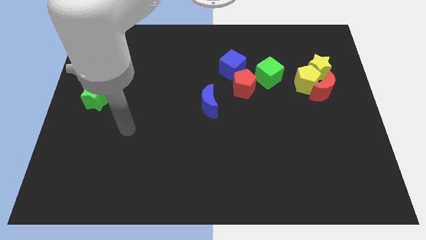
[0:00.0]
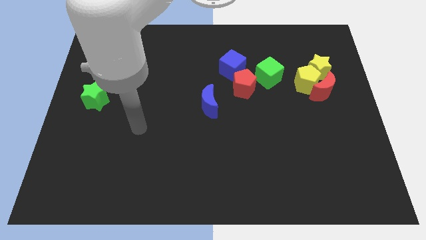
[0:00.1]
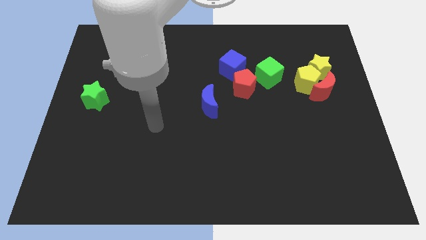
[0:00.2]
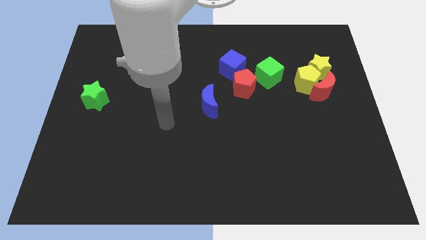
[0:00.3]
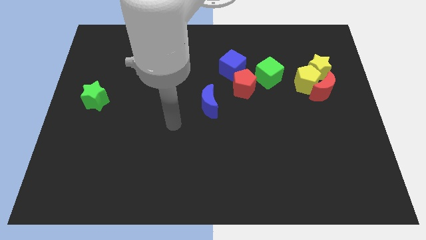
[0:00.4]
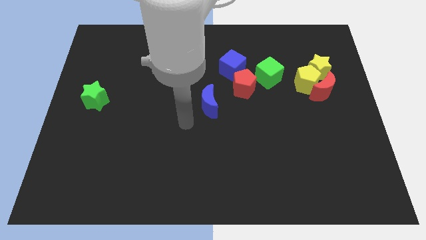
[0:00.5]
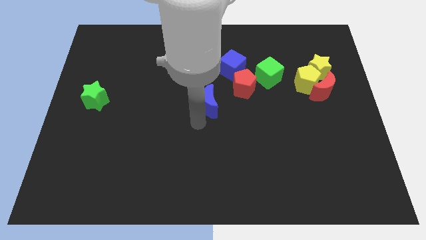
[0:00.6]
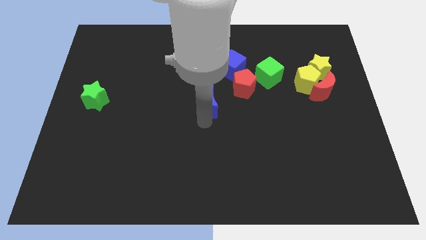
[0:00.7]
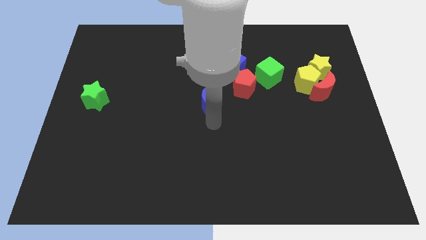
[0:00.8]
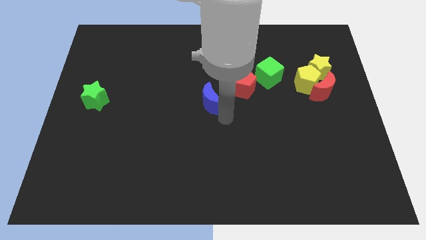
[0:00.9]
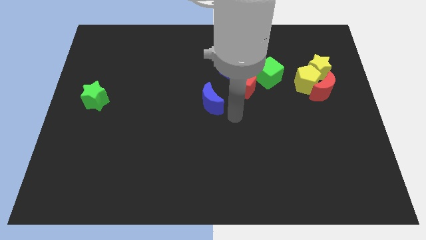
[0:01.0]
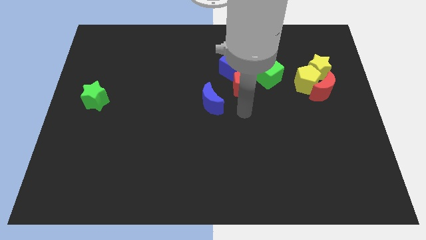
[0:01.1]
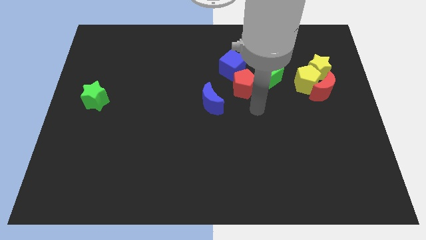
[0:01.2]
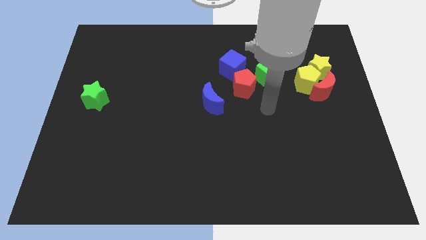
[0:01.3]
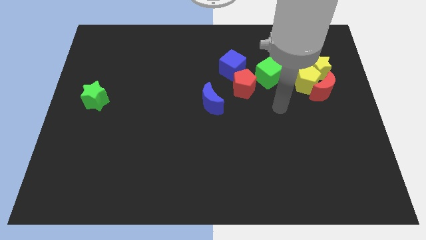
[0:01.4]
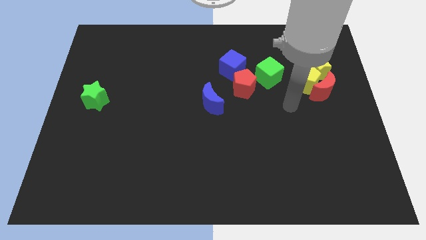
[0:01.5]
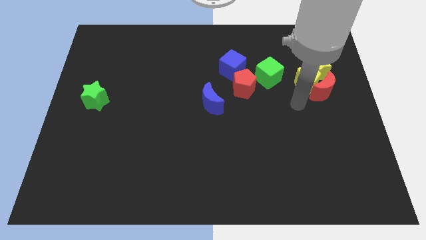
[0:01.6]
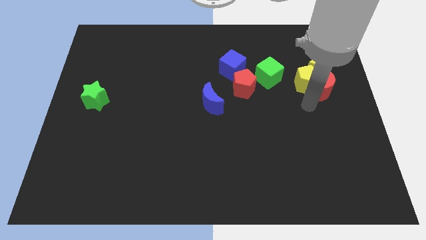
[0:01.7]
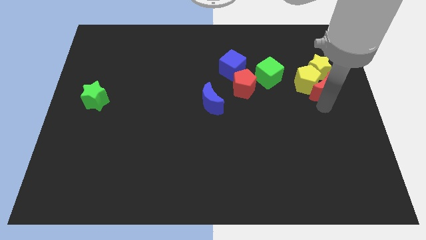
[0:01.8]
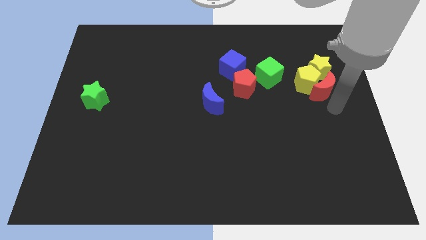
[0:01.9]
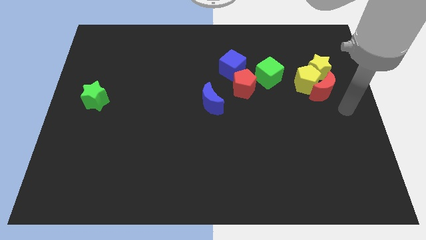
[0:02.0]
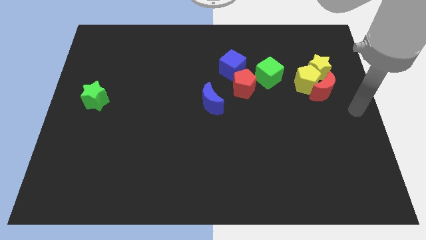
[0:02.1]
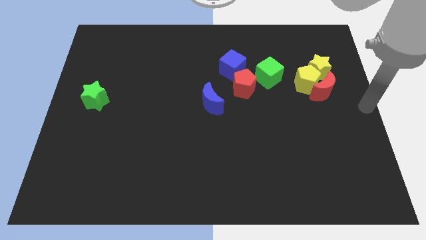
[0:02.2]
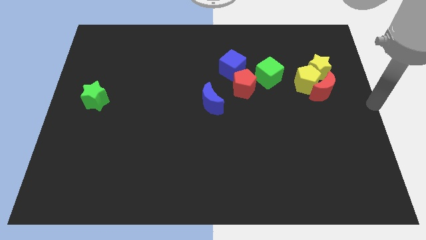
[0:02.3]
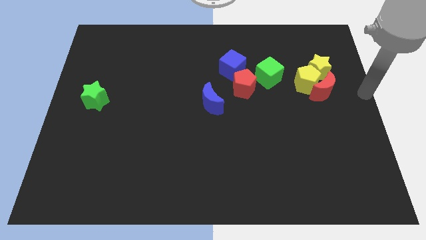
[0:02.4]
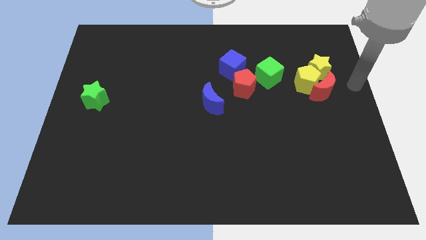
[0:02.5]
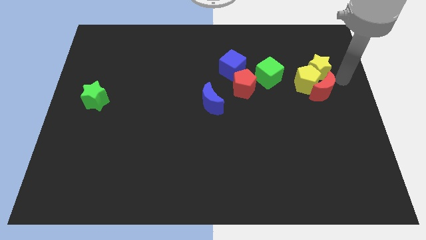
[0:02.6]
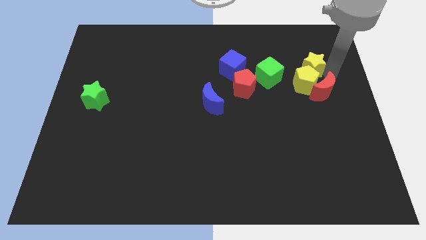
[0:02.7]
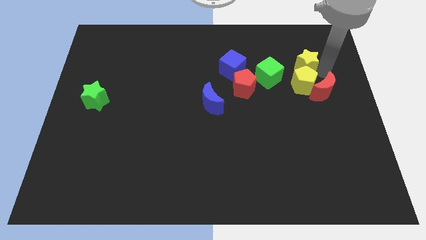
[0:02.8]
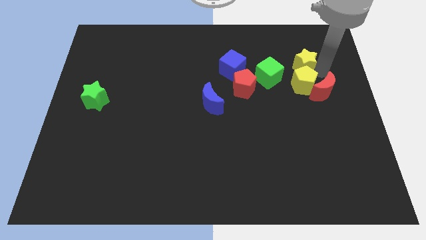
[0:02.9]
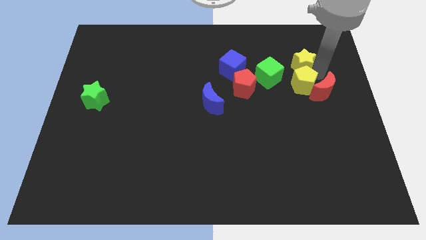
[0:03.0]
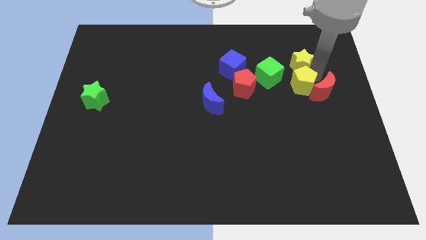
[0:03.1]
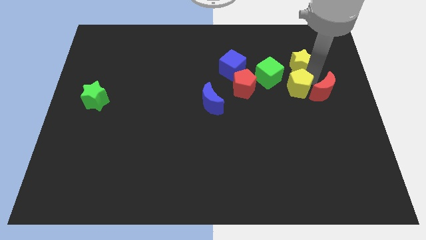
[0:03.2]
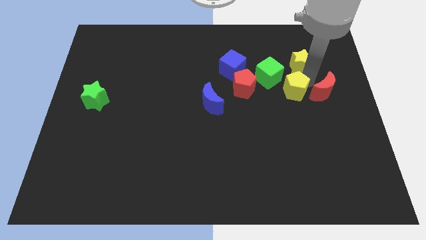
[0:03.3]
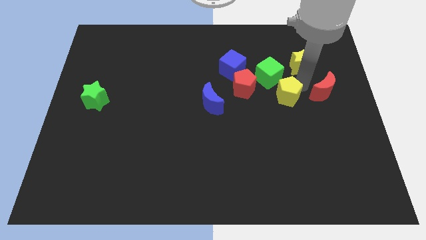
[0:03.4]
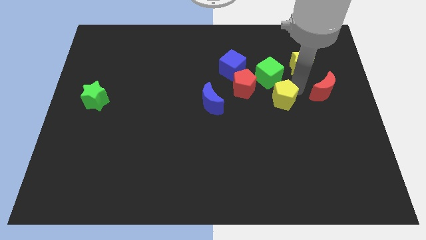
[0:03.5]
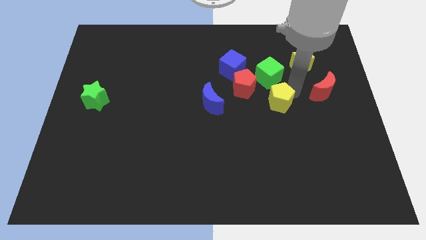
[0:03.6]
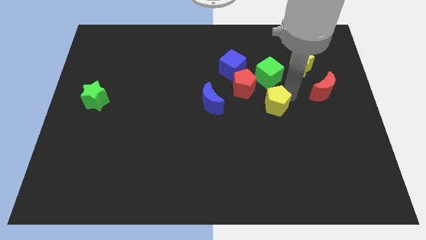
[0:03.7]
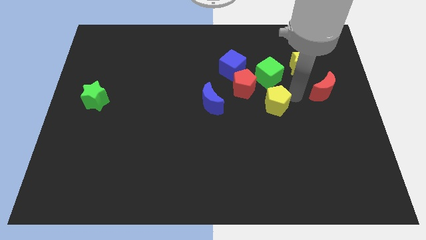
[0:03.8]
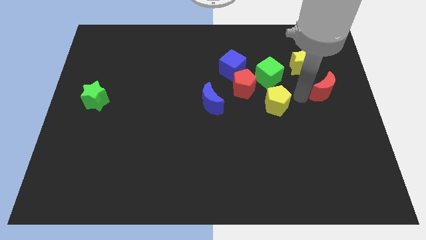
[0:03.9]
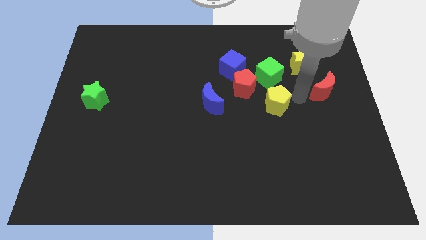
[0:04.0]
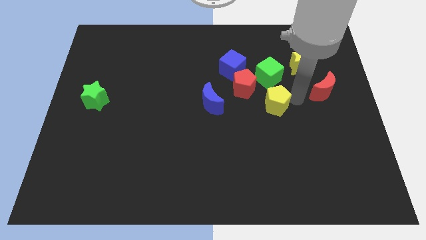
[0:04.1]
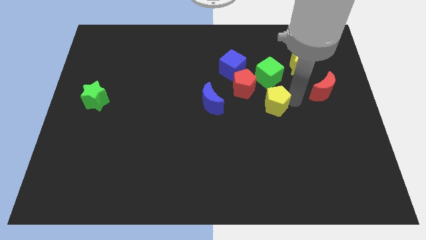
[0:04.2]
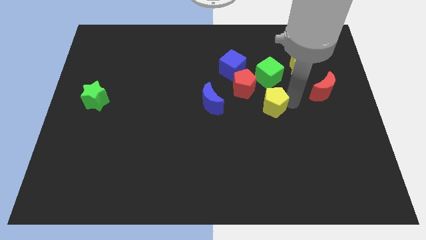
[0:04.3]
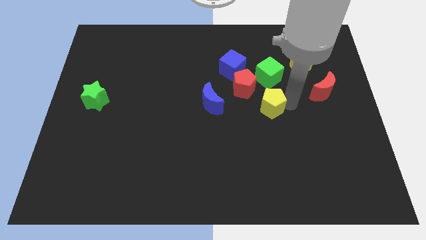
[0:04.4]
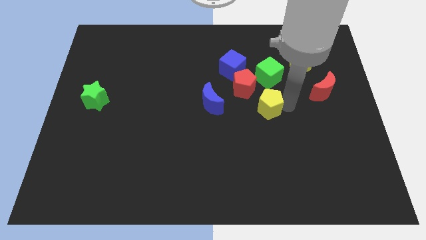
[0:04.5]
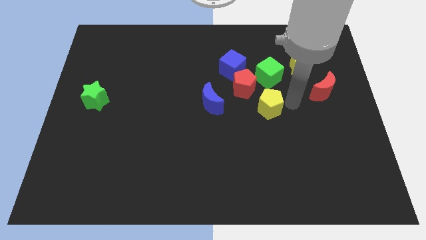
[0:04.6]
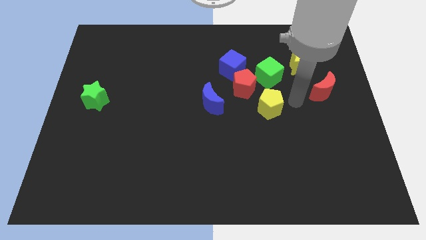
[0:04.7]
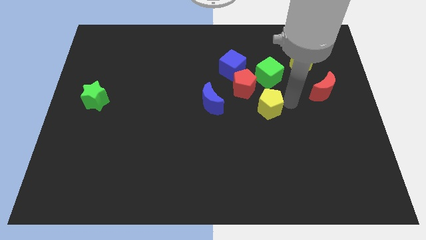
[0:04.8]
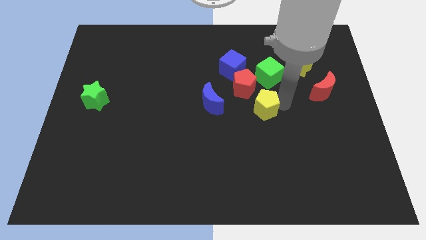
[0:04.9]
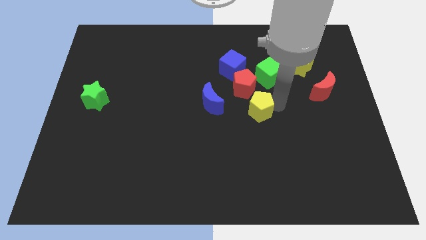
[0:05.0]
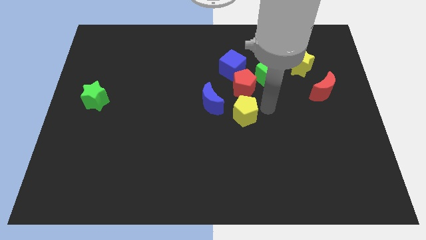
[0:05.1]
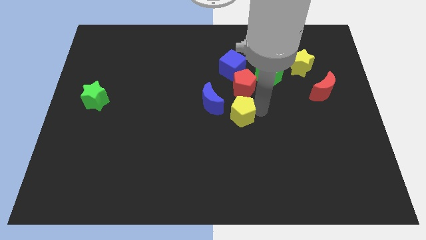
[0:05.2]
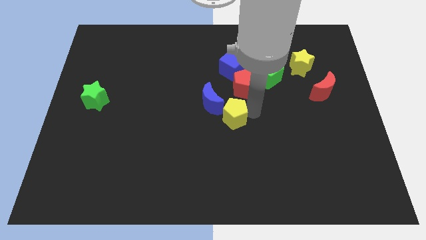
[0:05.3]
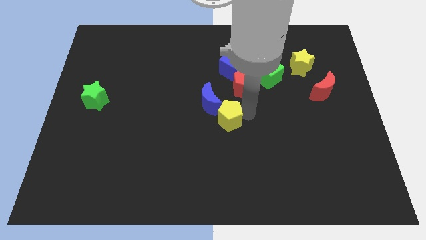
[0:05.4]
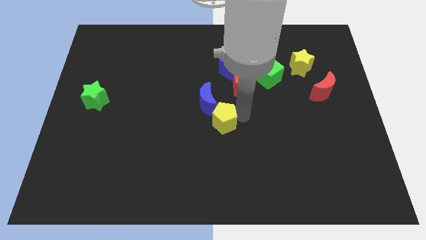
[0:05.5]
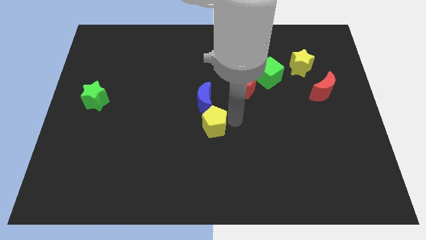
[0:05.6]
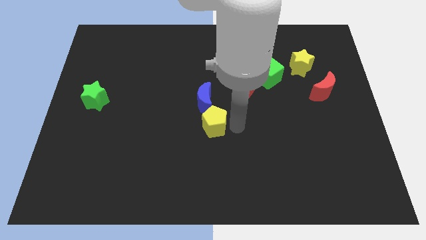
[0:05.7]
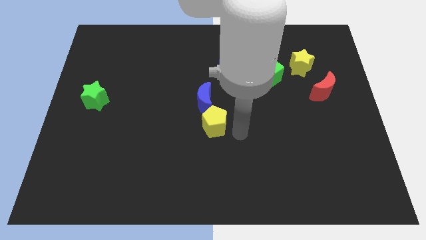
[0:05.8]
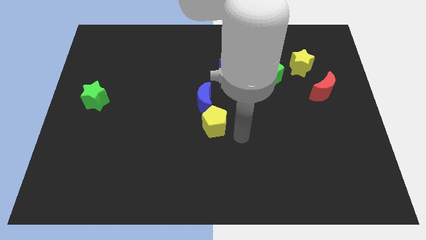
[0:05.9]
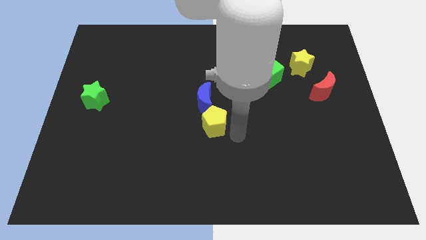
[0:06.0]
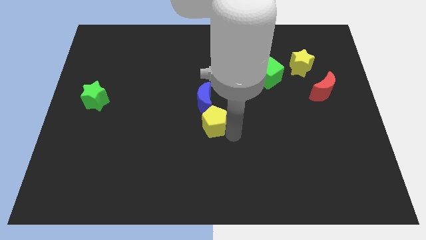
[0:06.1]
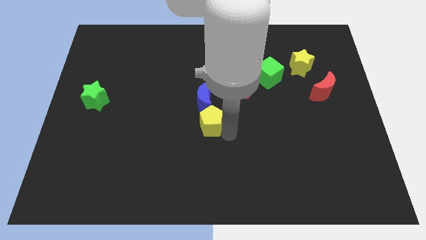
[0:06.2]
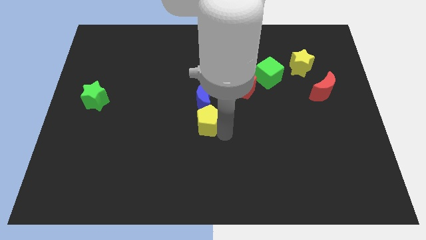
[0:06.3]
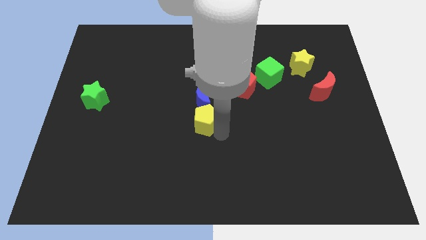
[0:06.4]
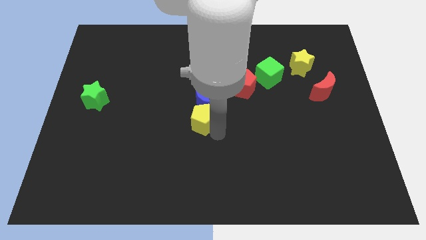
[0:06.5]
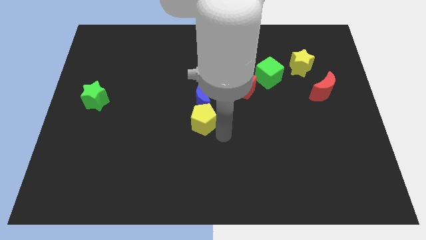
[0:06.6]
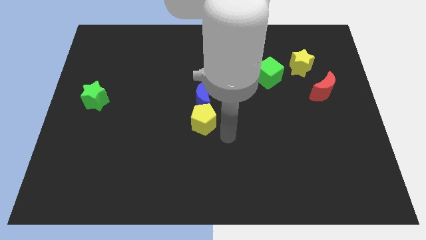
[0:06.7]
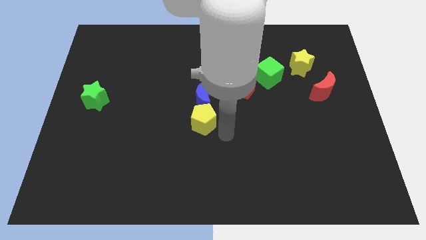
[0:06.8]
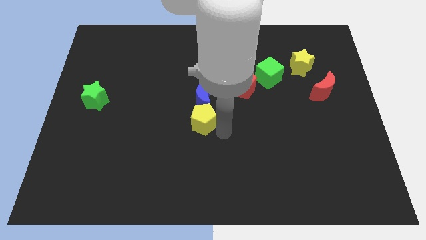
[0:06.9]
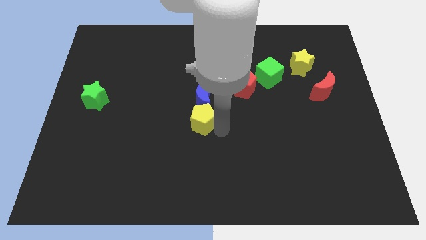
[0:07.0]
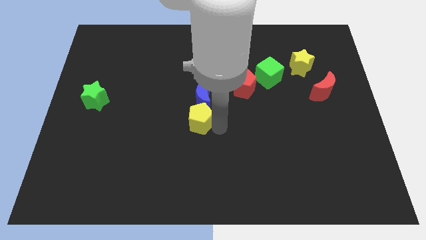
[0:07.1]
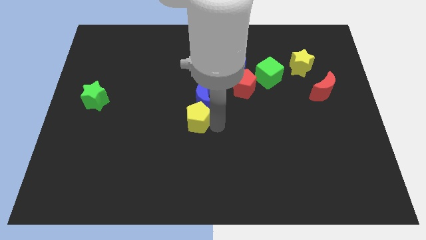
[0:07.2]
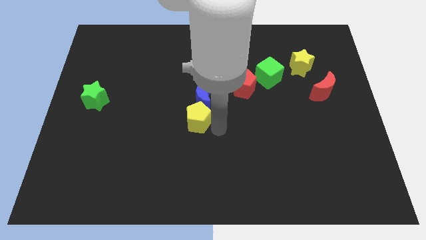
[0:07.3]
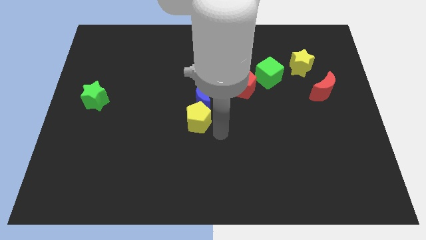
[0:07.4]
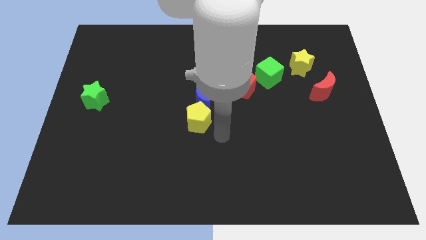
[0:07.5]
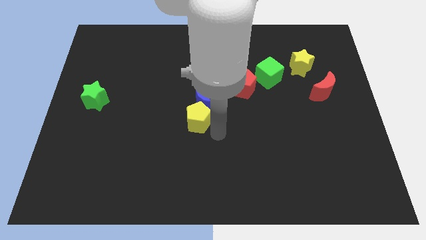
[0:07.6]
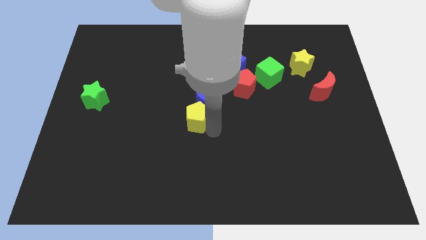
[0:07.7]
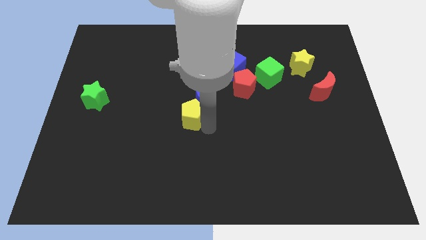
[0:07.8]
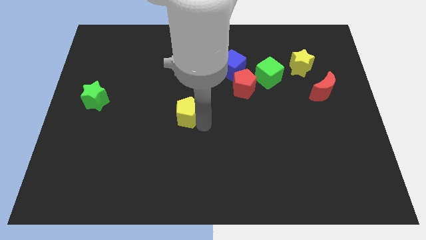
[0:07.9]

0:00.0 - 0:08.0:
move the yellow pentagon to the left of the blue moon

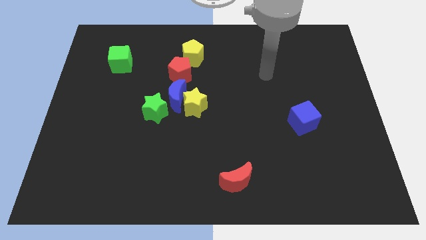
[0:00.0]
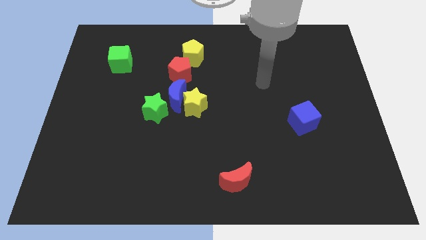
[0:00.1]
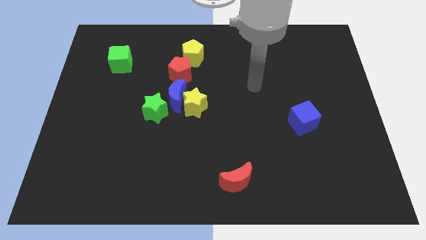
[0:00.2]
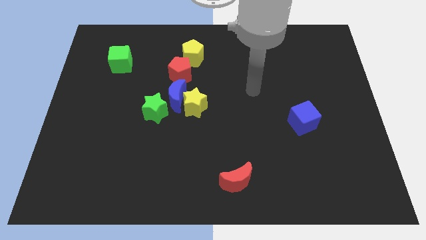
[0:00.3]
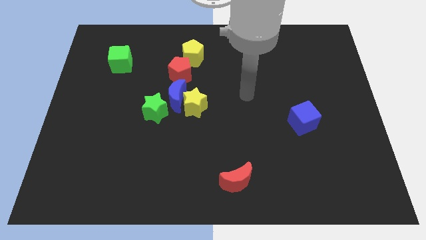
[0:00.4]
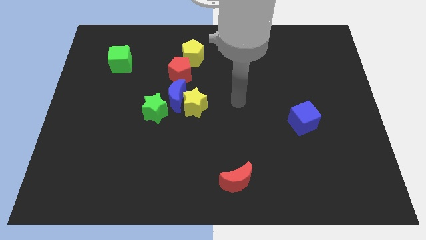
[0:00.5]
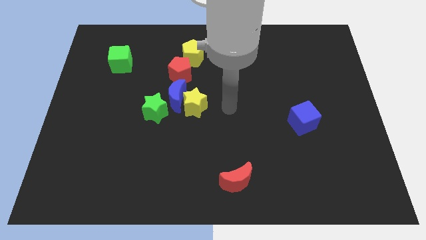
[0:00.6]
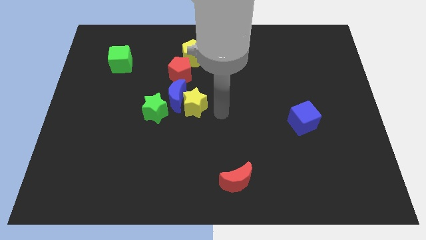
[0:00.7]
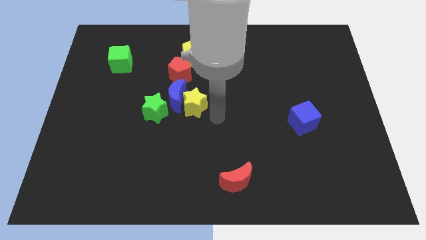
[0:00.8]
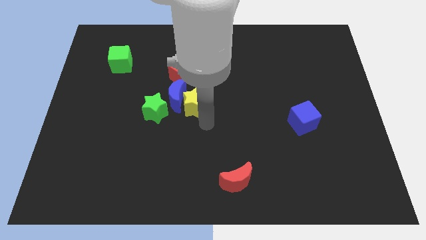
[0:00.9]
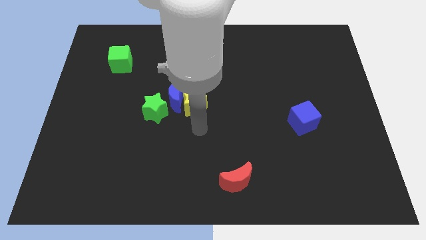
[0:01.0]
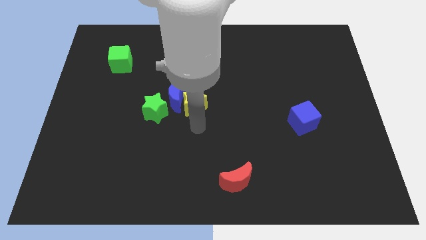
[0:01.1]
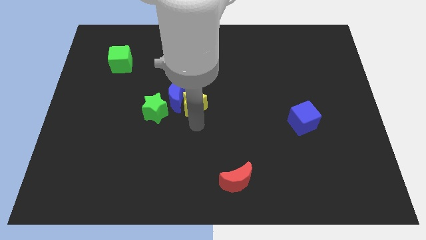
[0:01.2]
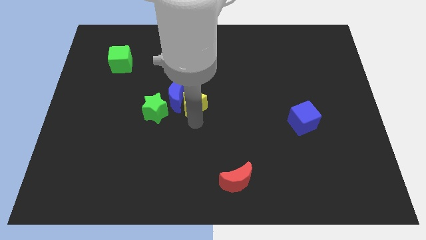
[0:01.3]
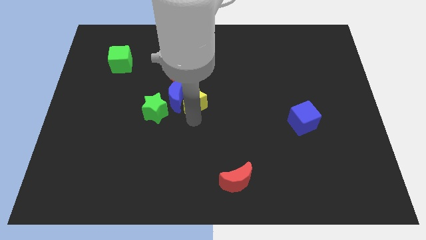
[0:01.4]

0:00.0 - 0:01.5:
move the yellow star below the yellow pentagon
